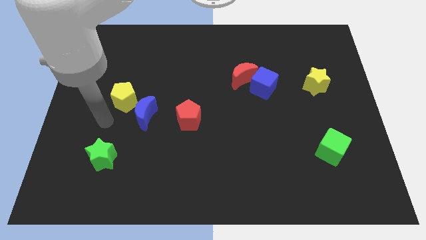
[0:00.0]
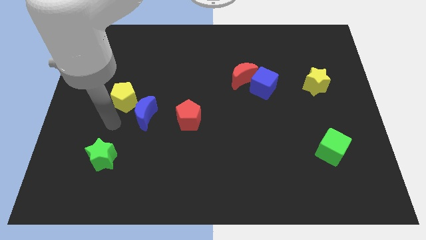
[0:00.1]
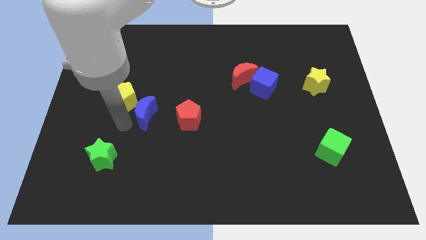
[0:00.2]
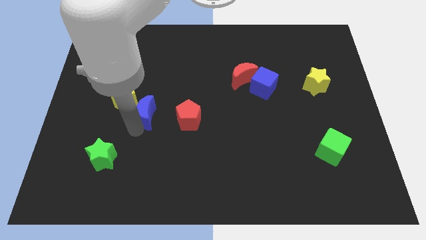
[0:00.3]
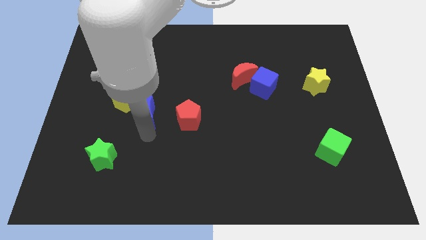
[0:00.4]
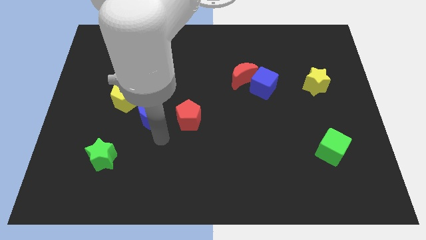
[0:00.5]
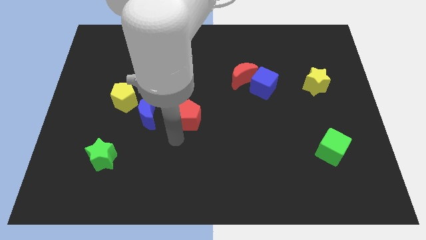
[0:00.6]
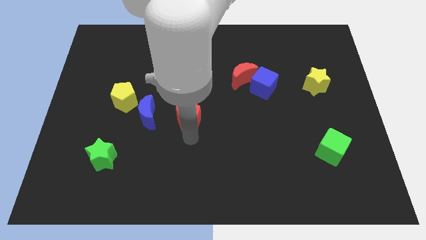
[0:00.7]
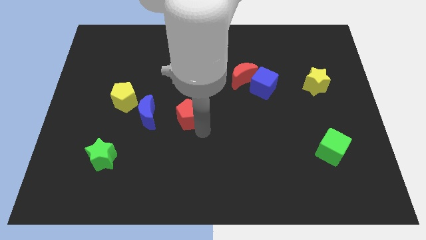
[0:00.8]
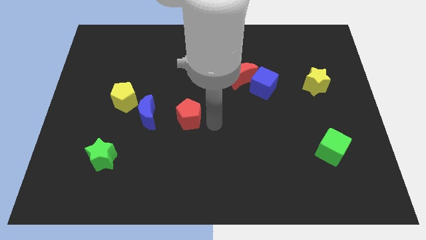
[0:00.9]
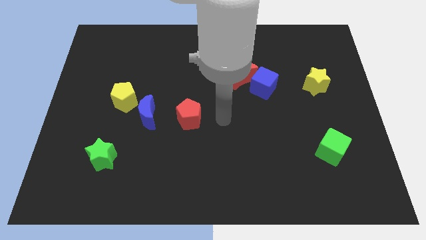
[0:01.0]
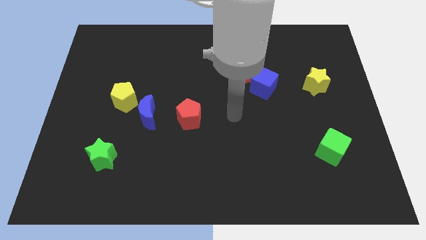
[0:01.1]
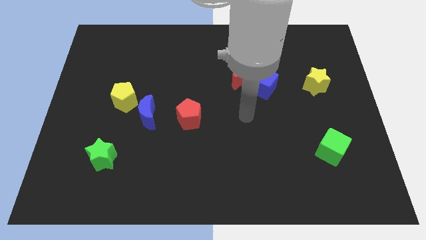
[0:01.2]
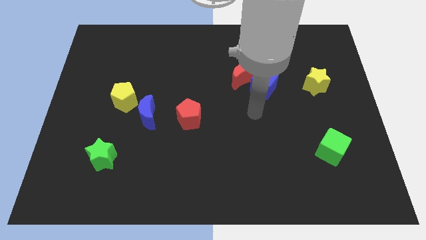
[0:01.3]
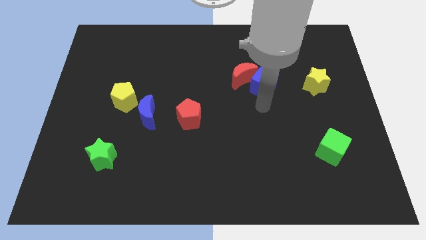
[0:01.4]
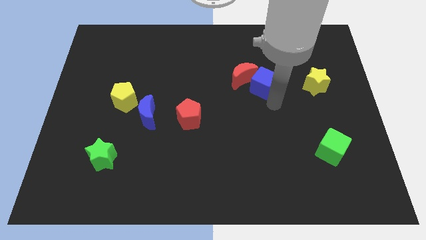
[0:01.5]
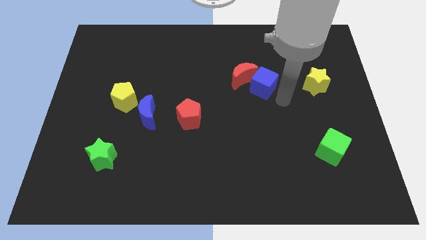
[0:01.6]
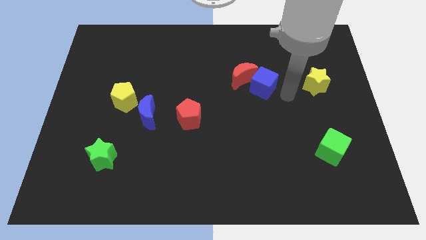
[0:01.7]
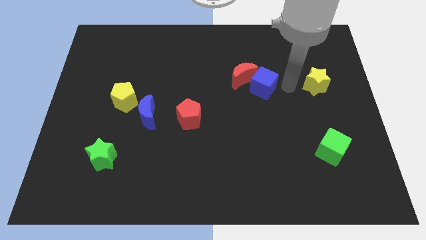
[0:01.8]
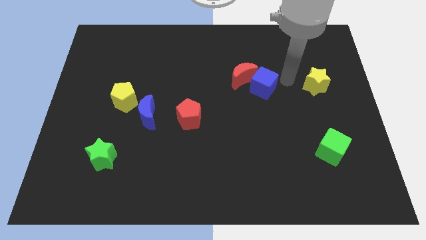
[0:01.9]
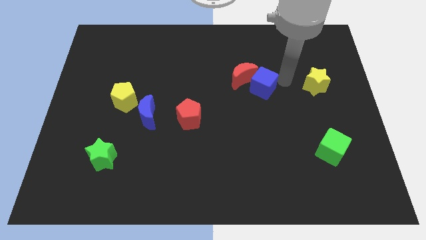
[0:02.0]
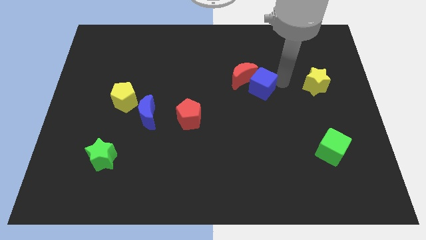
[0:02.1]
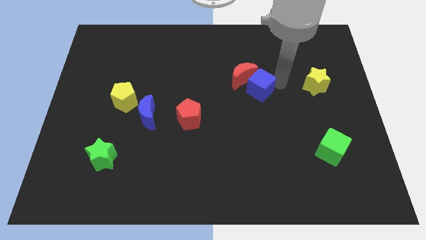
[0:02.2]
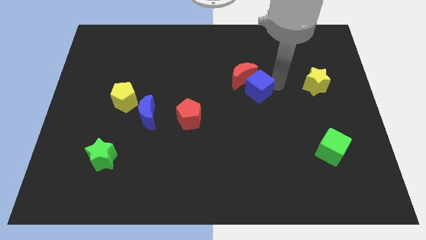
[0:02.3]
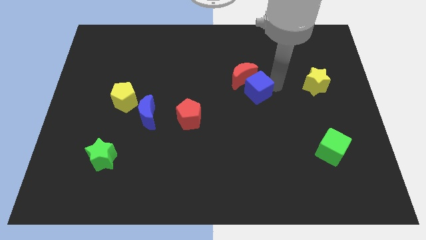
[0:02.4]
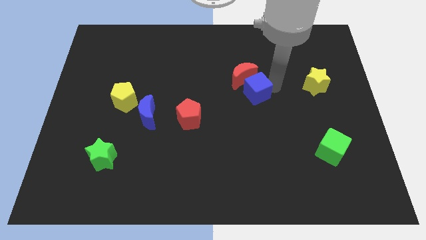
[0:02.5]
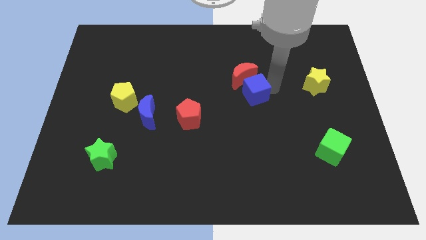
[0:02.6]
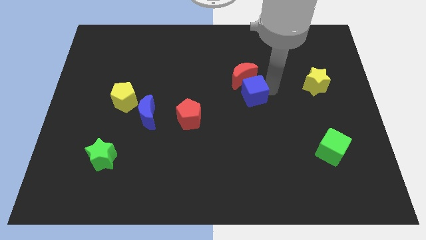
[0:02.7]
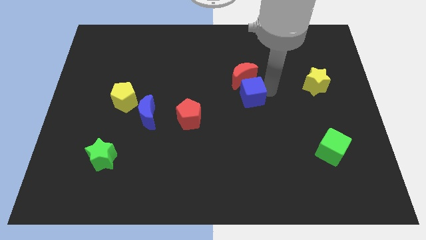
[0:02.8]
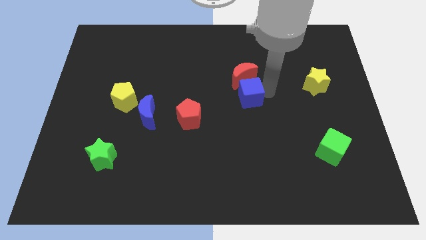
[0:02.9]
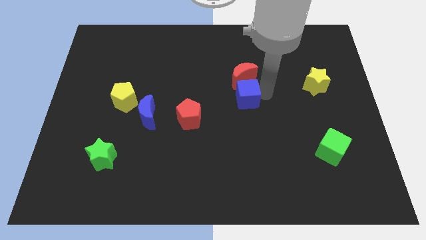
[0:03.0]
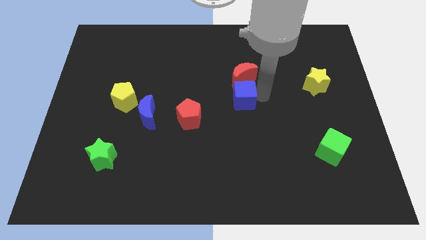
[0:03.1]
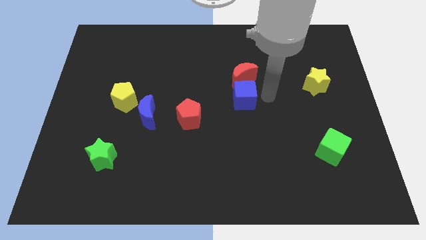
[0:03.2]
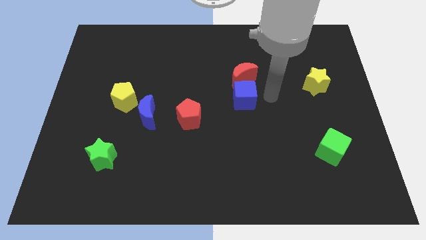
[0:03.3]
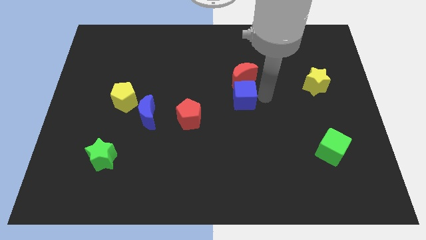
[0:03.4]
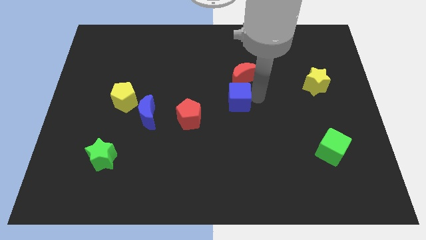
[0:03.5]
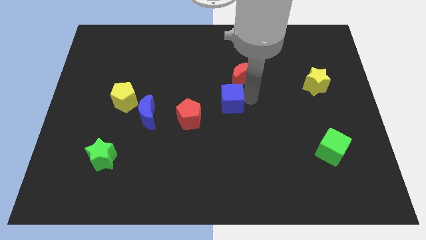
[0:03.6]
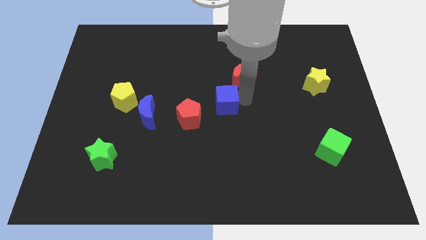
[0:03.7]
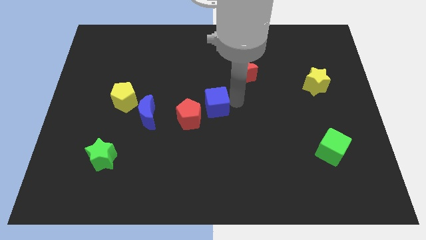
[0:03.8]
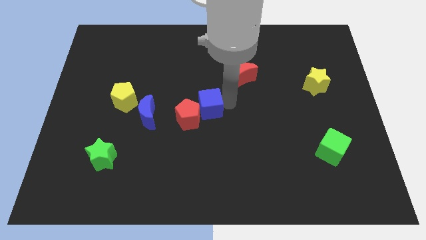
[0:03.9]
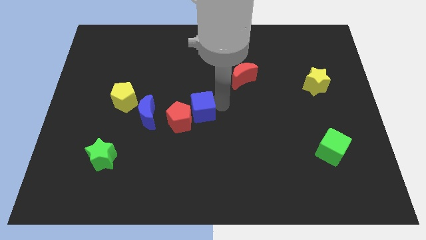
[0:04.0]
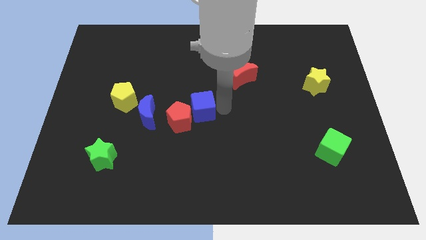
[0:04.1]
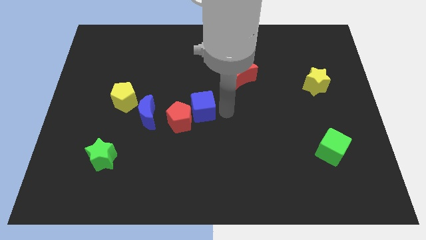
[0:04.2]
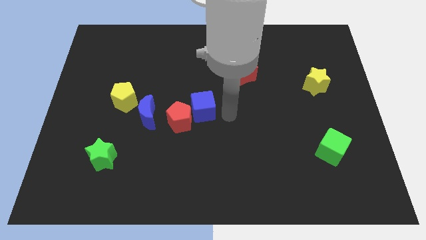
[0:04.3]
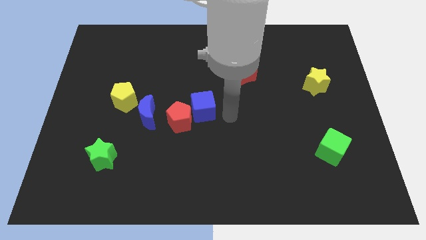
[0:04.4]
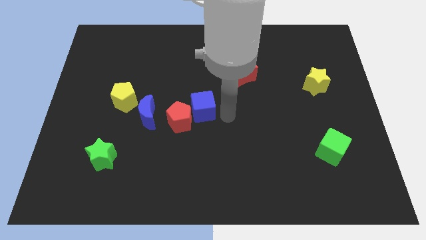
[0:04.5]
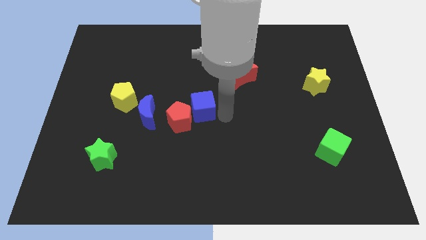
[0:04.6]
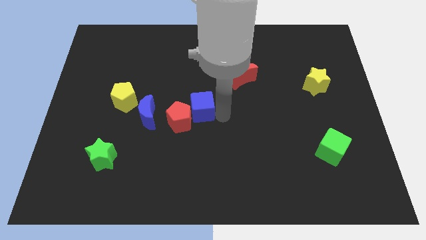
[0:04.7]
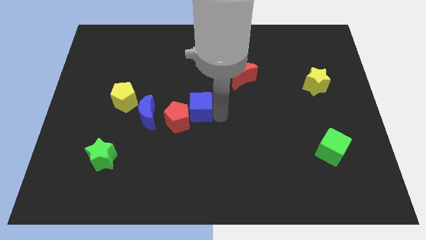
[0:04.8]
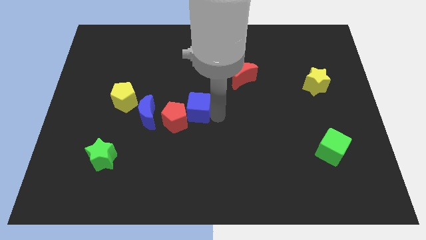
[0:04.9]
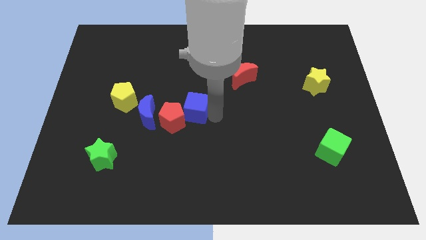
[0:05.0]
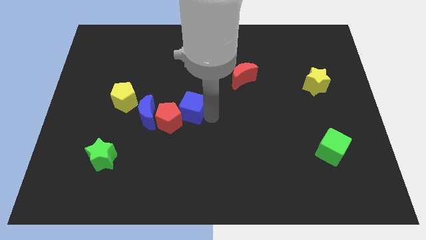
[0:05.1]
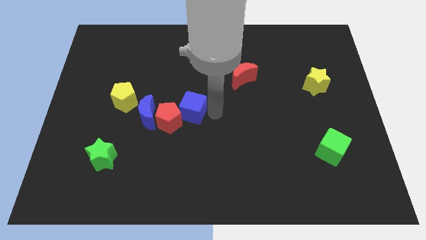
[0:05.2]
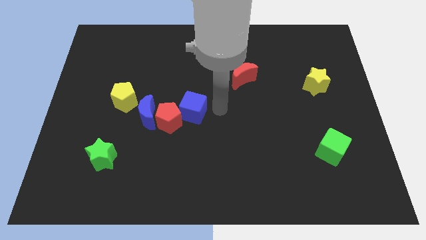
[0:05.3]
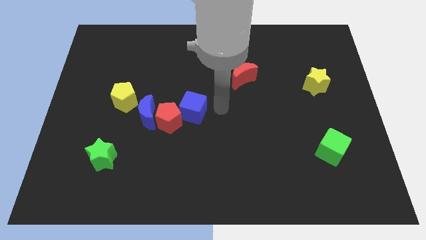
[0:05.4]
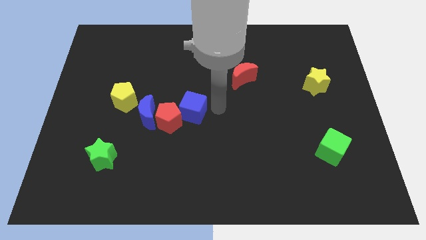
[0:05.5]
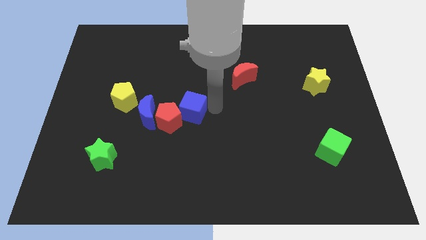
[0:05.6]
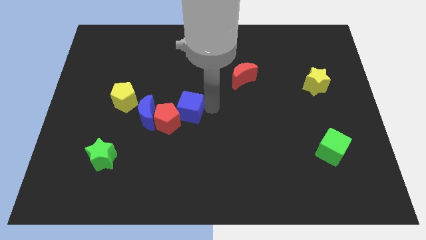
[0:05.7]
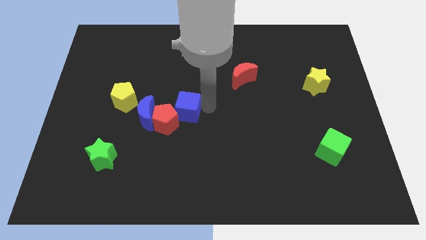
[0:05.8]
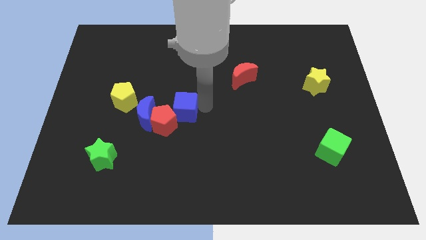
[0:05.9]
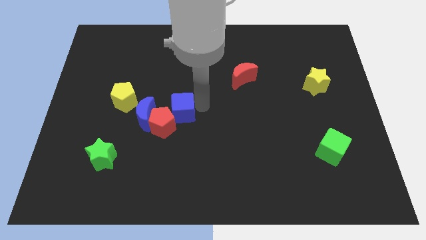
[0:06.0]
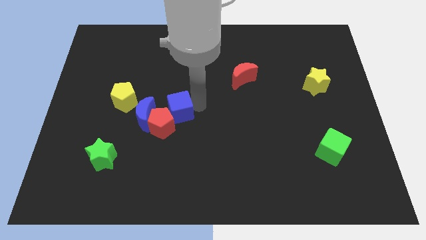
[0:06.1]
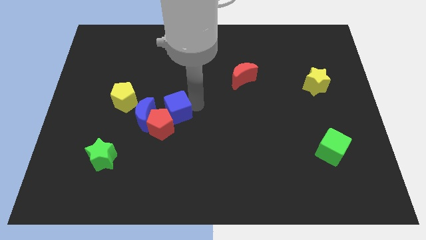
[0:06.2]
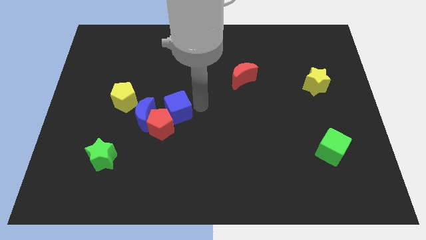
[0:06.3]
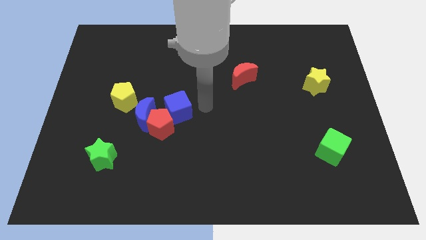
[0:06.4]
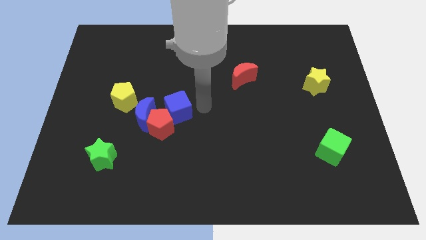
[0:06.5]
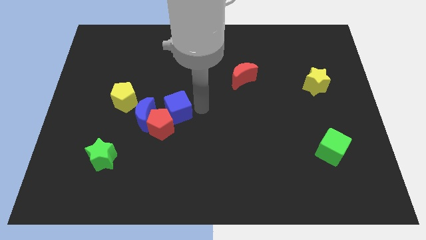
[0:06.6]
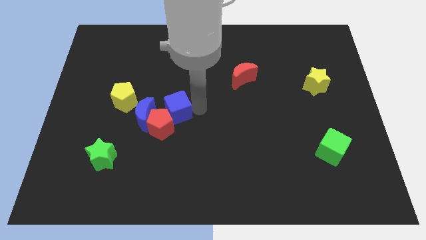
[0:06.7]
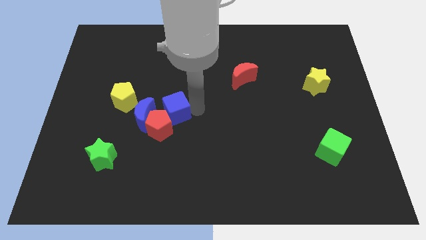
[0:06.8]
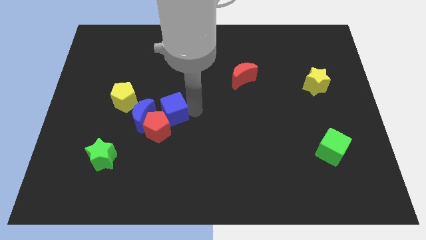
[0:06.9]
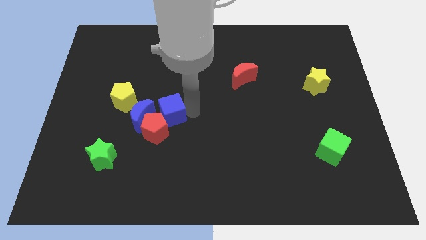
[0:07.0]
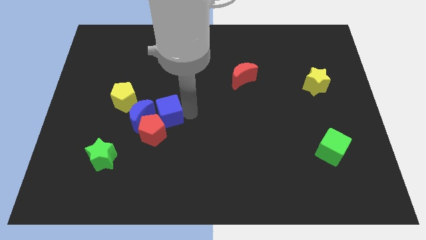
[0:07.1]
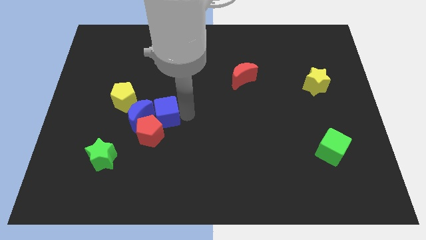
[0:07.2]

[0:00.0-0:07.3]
put the blue cube close to the blue moon
